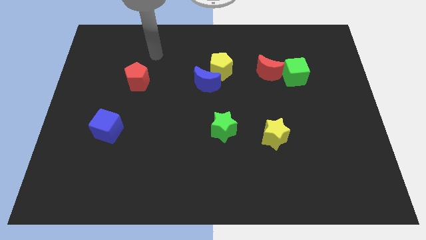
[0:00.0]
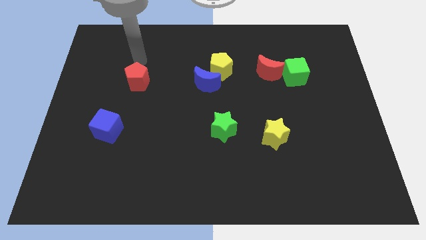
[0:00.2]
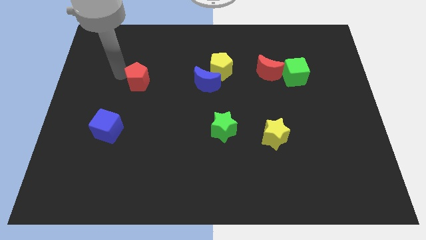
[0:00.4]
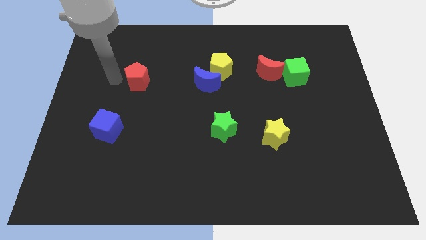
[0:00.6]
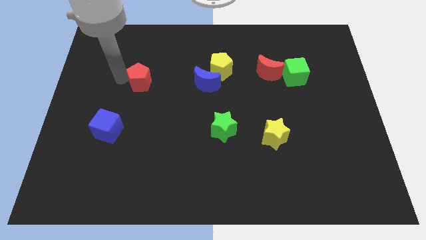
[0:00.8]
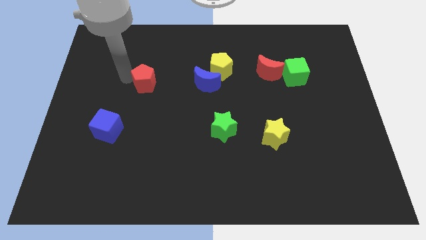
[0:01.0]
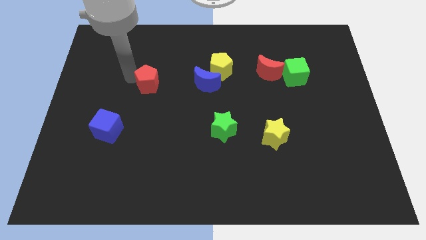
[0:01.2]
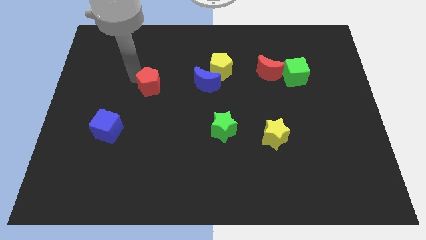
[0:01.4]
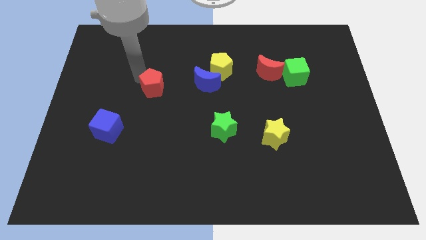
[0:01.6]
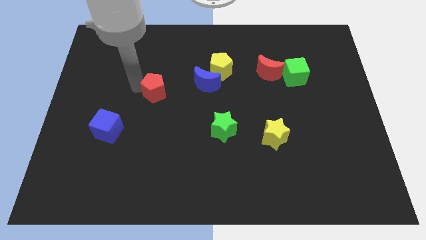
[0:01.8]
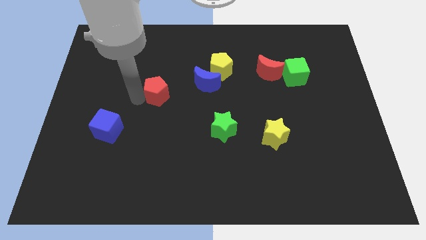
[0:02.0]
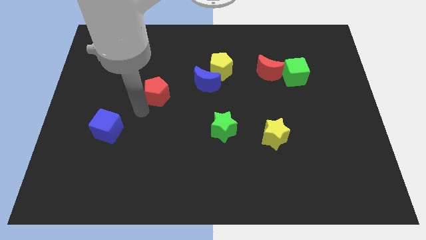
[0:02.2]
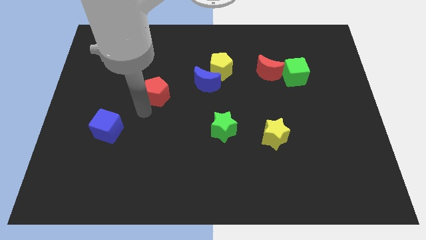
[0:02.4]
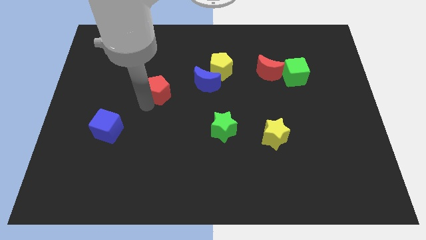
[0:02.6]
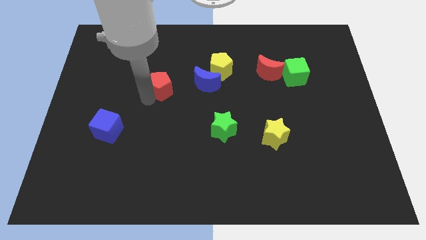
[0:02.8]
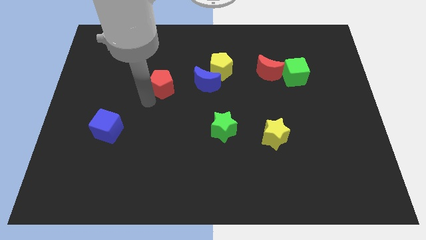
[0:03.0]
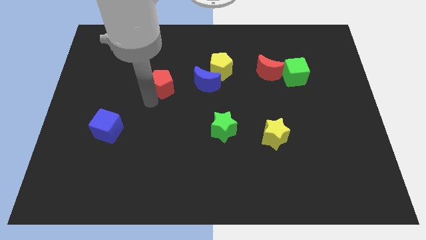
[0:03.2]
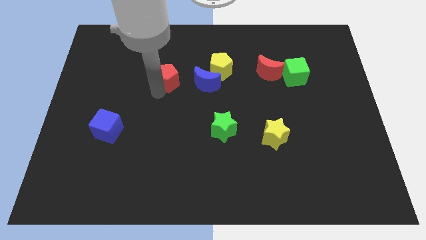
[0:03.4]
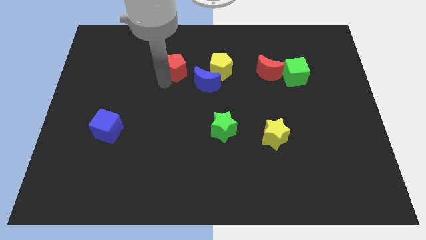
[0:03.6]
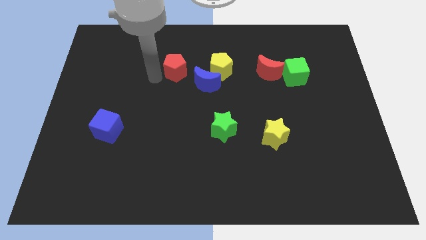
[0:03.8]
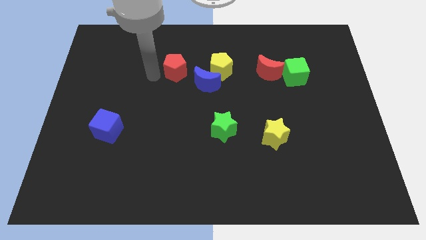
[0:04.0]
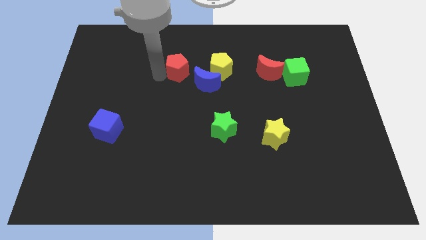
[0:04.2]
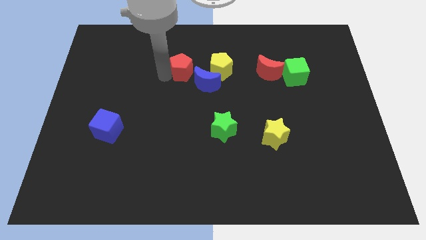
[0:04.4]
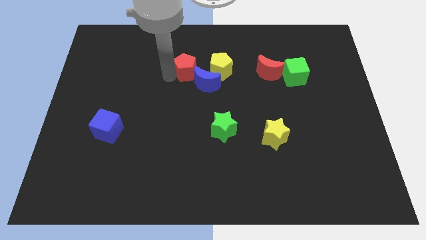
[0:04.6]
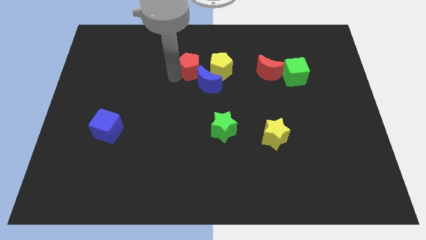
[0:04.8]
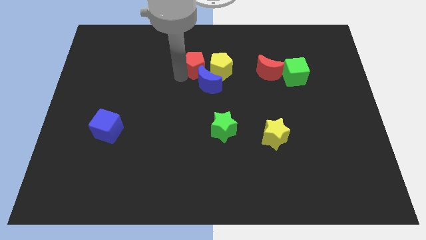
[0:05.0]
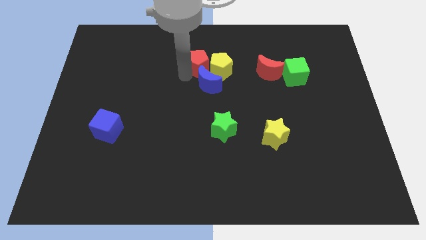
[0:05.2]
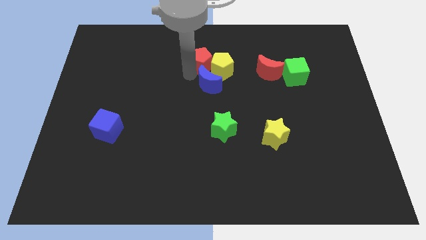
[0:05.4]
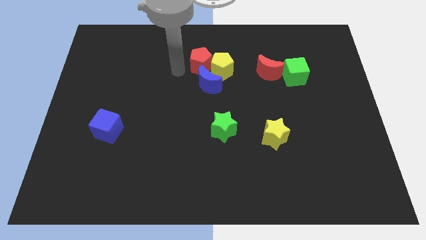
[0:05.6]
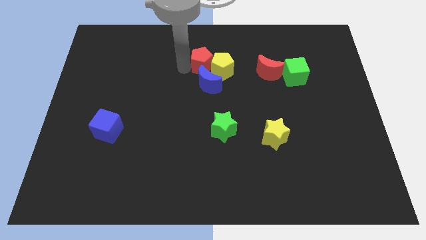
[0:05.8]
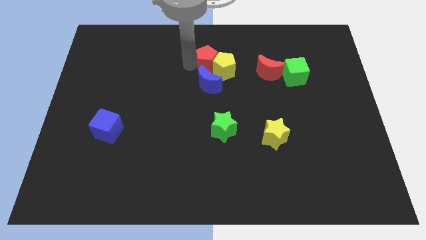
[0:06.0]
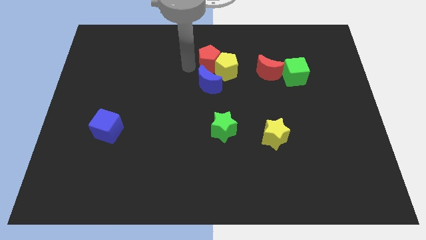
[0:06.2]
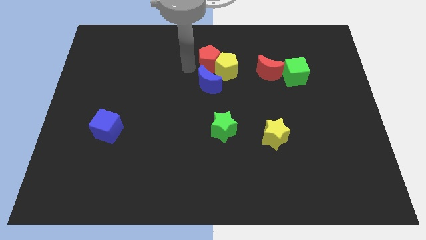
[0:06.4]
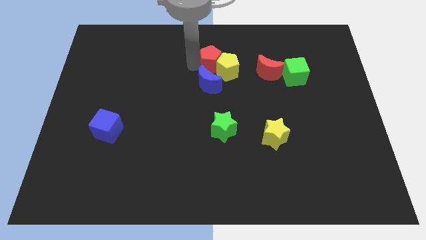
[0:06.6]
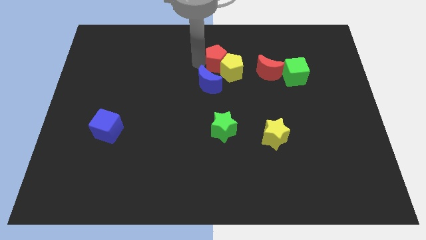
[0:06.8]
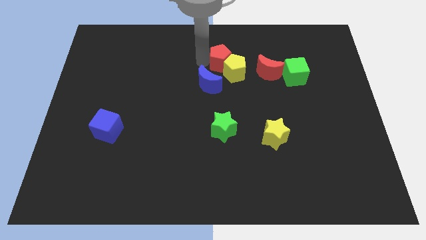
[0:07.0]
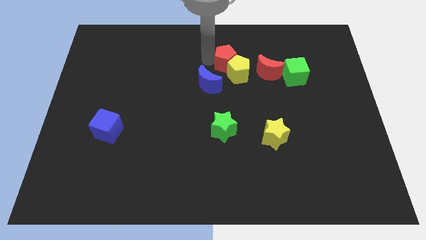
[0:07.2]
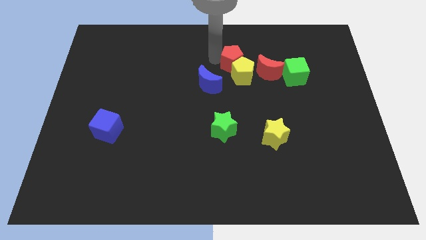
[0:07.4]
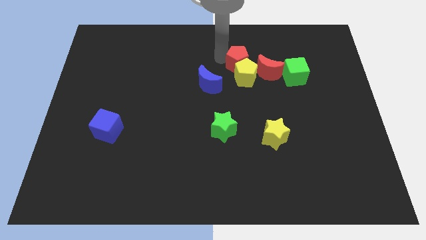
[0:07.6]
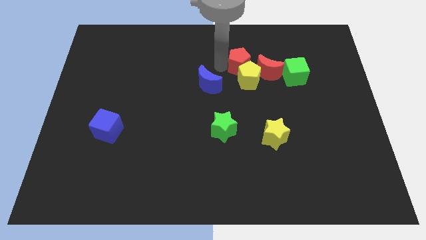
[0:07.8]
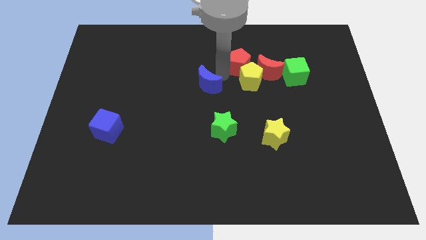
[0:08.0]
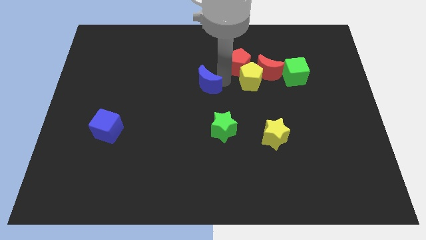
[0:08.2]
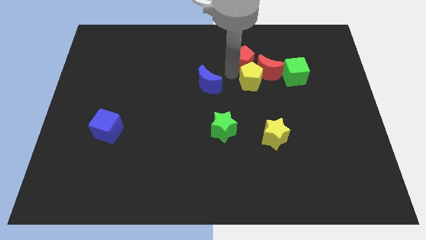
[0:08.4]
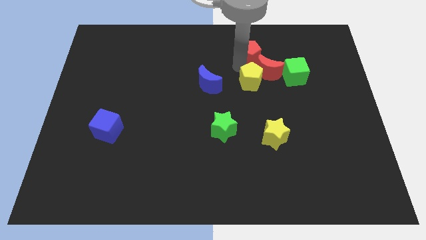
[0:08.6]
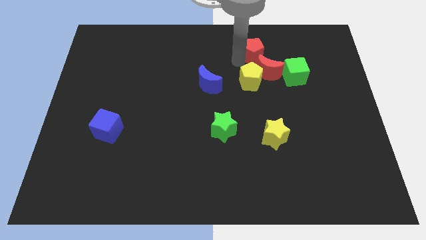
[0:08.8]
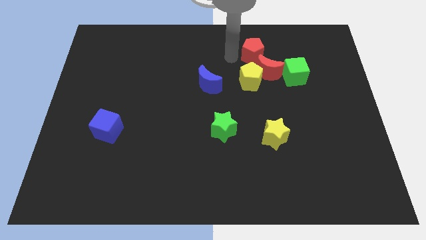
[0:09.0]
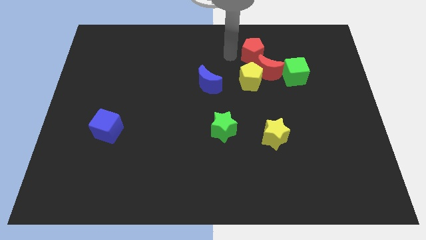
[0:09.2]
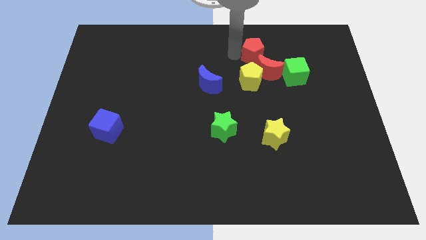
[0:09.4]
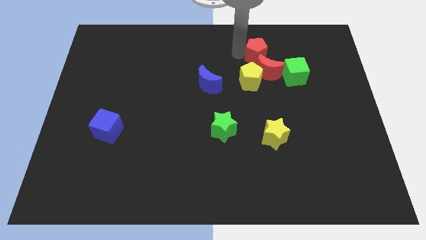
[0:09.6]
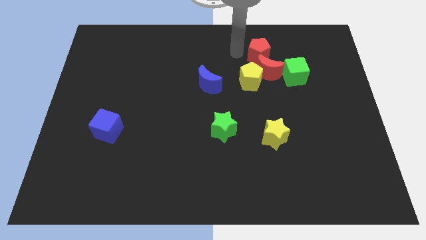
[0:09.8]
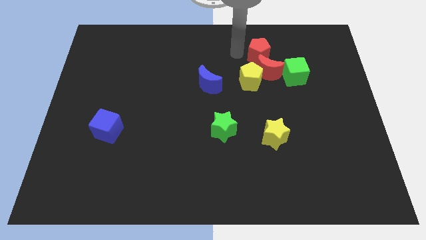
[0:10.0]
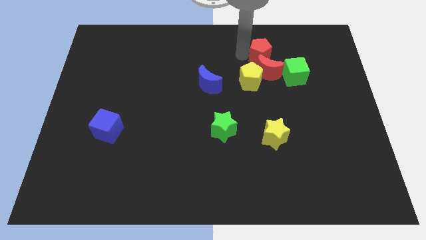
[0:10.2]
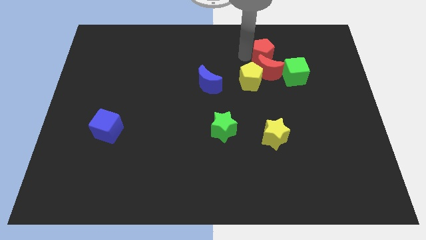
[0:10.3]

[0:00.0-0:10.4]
slide the red pentagon diagonally up and to the right of the red moon

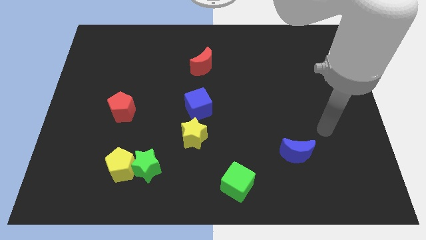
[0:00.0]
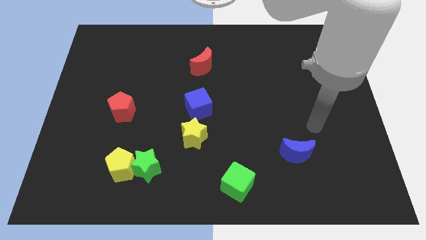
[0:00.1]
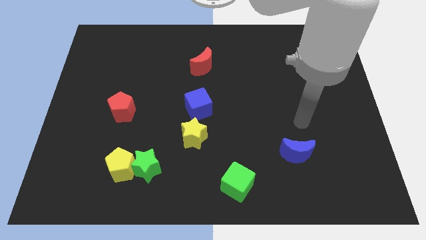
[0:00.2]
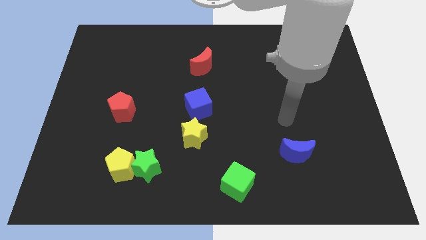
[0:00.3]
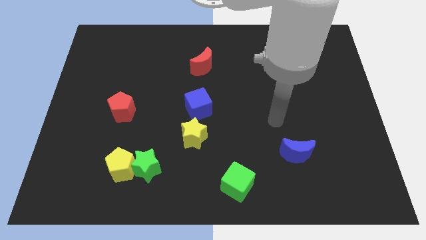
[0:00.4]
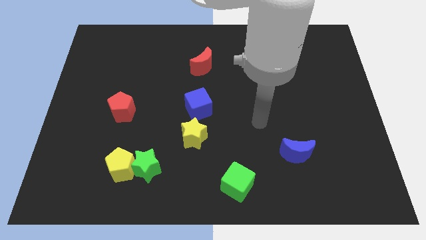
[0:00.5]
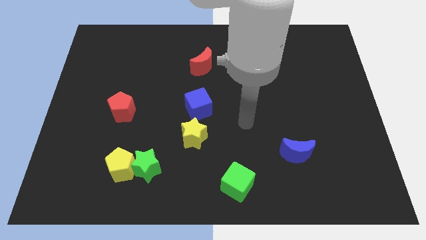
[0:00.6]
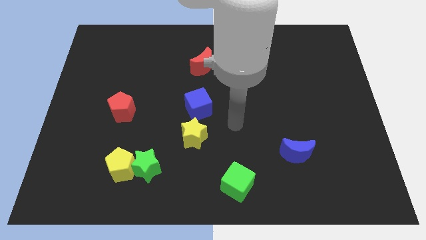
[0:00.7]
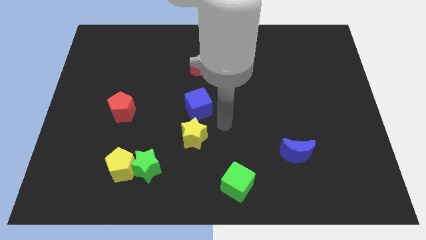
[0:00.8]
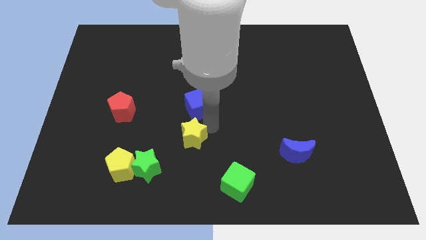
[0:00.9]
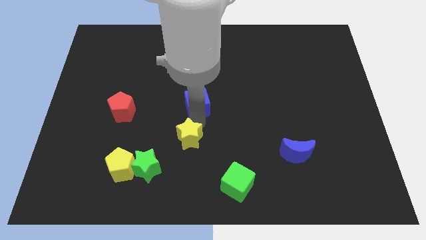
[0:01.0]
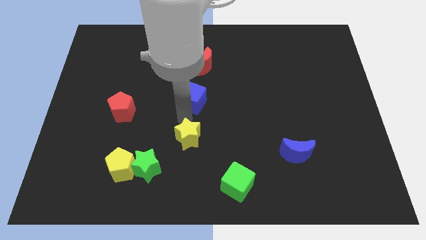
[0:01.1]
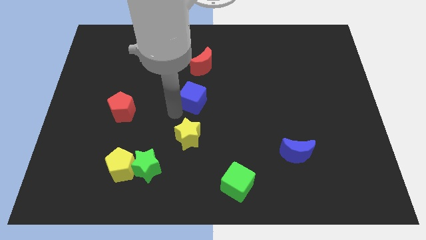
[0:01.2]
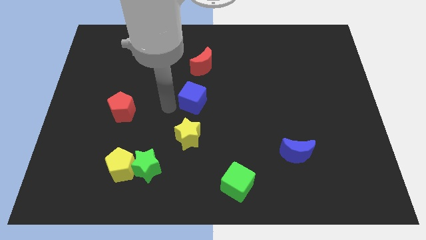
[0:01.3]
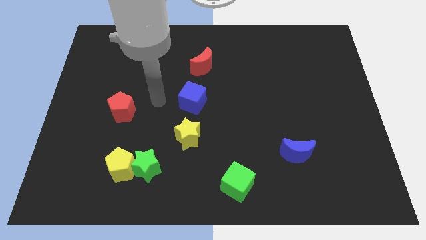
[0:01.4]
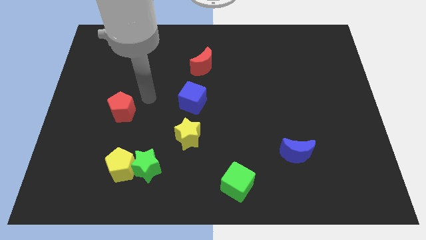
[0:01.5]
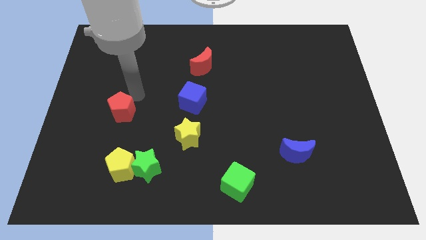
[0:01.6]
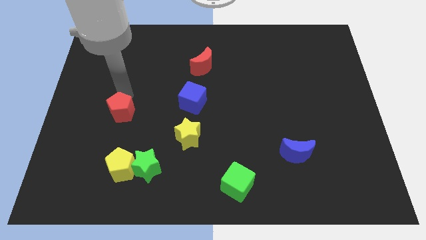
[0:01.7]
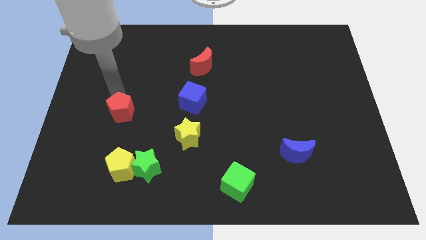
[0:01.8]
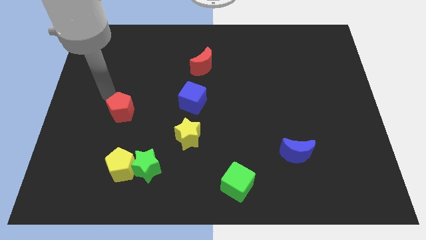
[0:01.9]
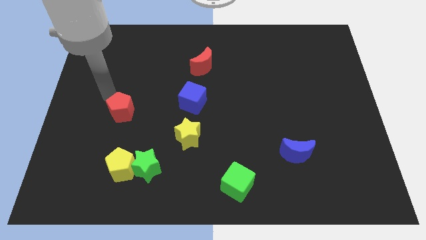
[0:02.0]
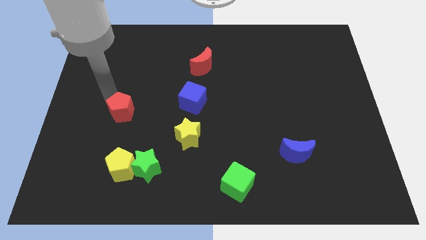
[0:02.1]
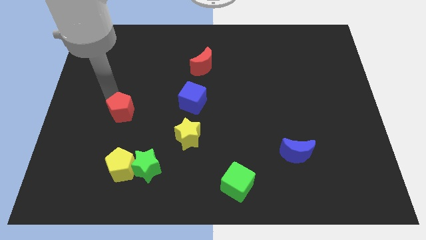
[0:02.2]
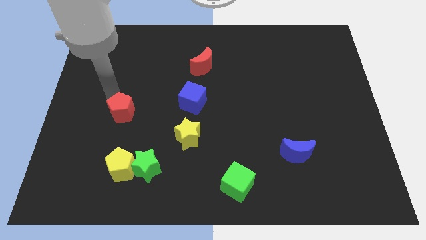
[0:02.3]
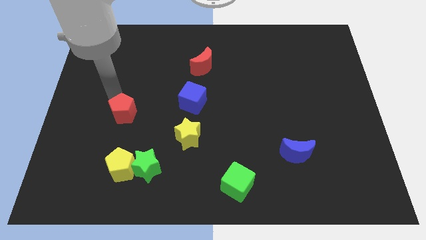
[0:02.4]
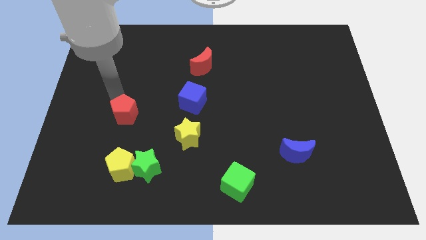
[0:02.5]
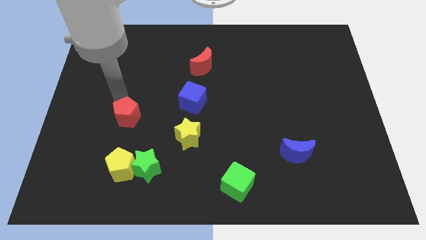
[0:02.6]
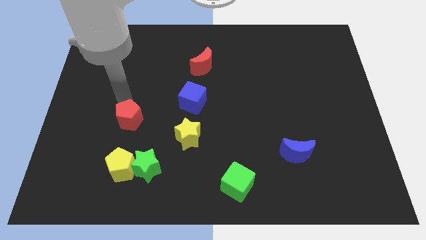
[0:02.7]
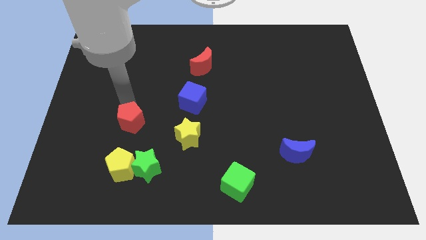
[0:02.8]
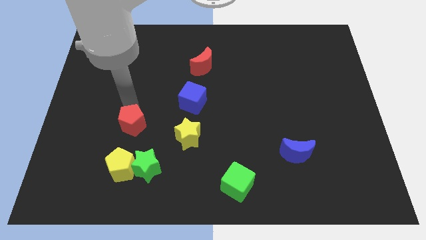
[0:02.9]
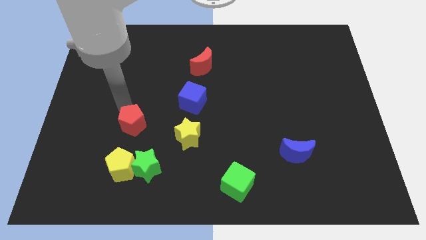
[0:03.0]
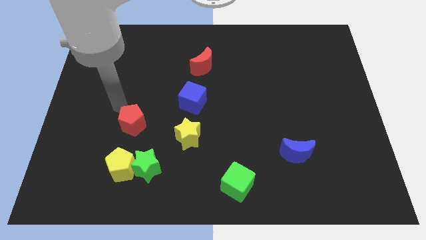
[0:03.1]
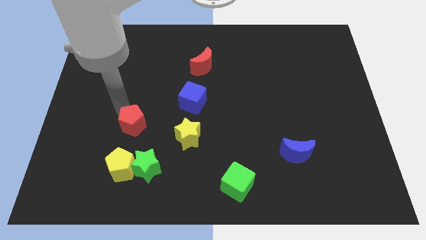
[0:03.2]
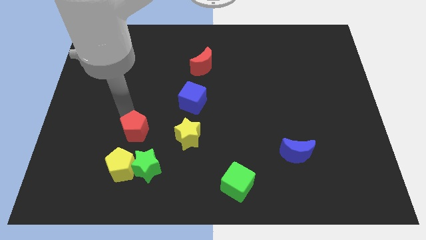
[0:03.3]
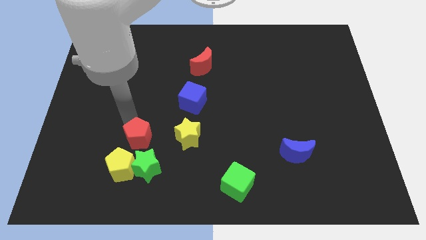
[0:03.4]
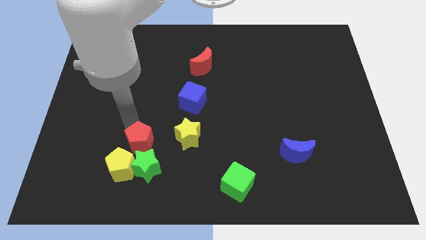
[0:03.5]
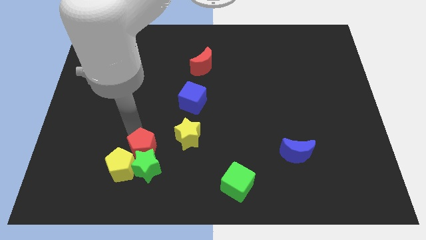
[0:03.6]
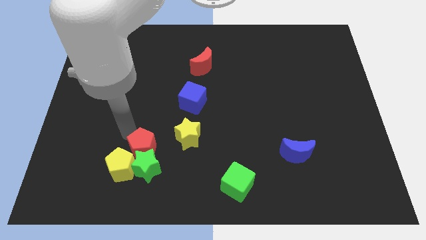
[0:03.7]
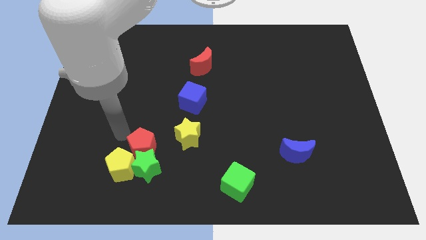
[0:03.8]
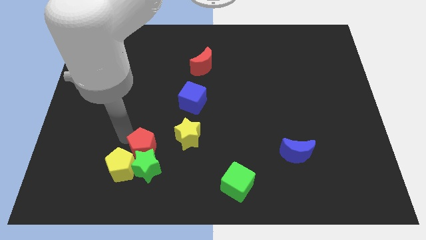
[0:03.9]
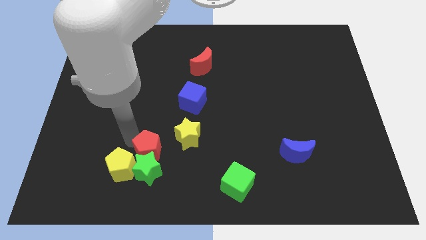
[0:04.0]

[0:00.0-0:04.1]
move the red pentagon diagonally down and to the left of the yellow star
